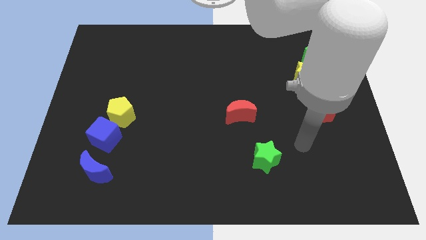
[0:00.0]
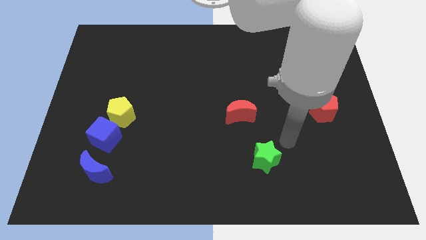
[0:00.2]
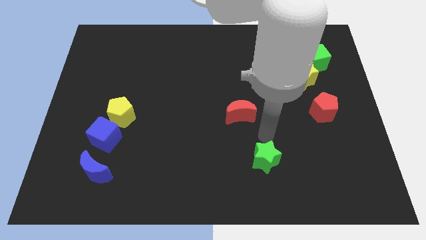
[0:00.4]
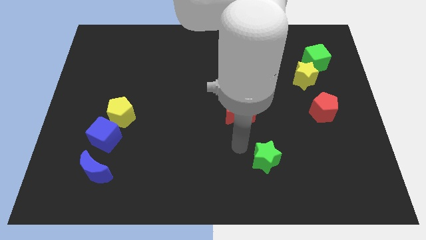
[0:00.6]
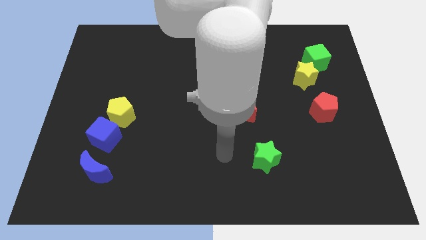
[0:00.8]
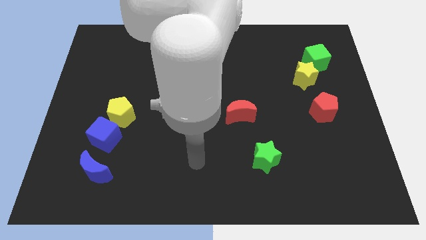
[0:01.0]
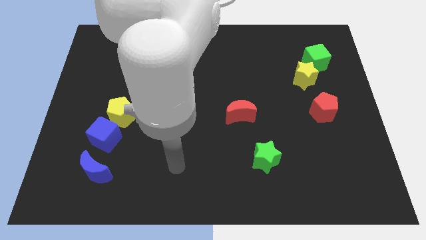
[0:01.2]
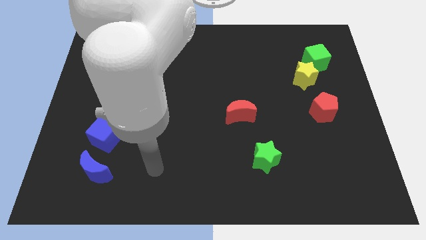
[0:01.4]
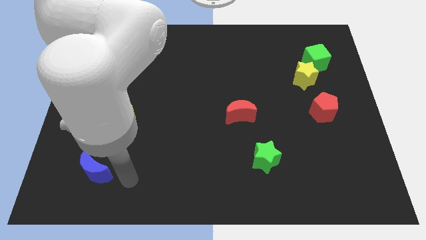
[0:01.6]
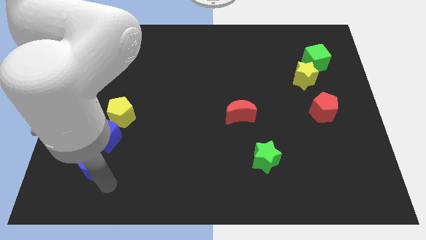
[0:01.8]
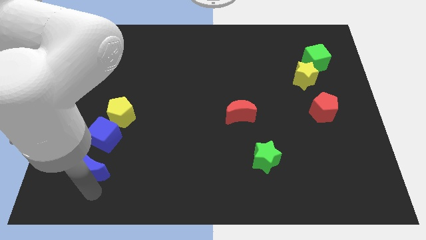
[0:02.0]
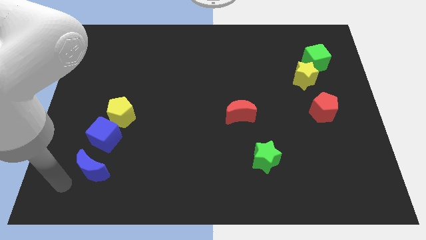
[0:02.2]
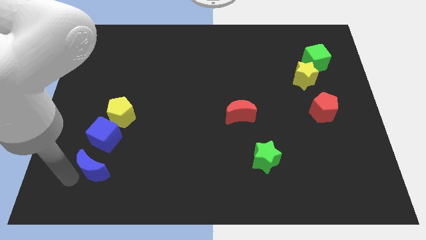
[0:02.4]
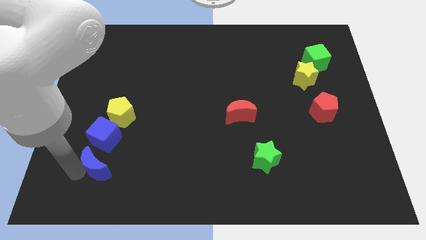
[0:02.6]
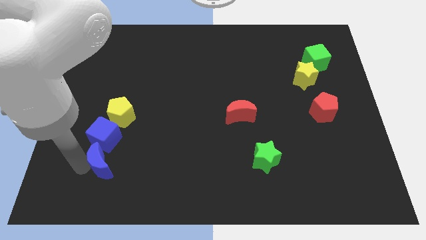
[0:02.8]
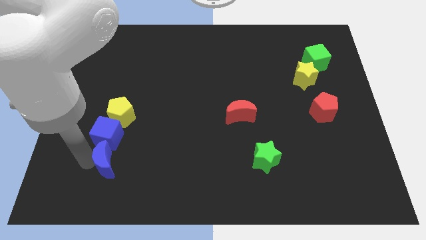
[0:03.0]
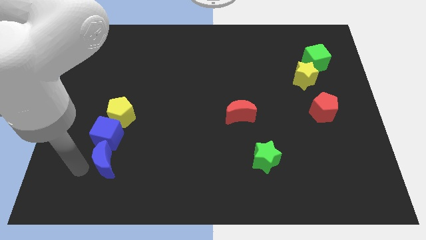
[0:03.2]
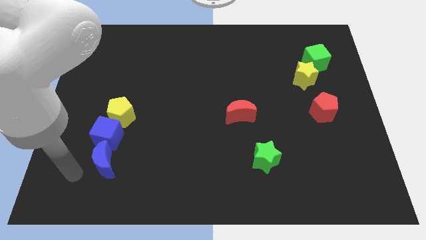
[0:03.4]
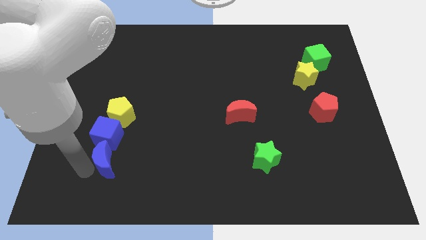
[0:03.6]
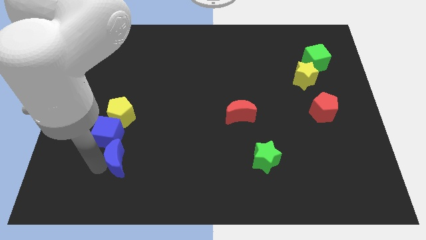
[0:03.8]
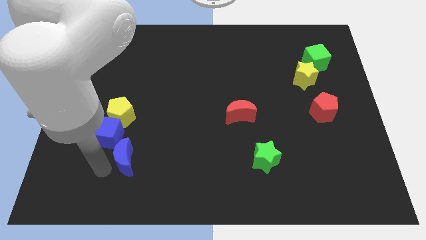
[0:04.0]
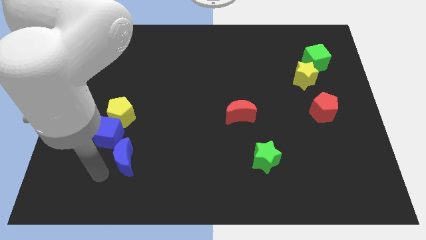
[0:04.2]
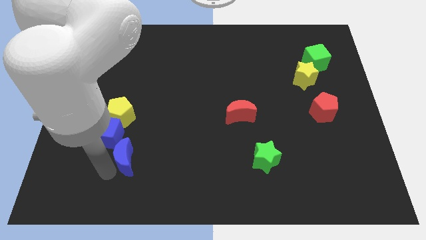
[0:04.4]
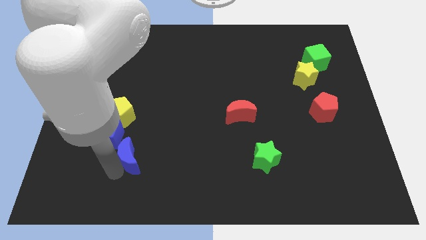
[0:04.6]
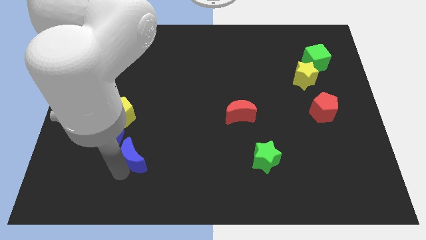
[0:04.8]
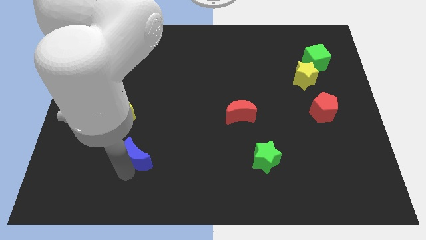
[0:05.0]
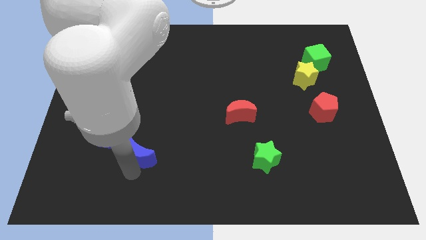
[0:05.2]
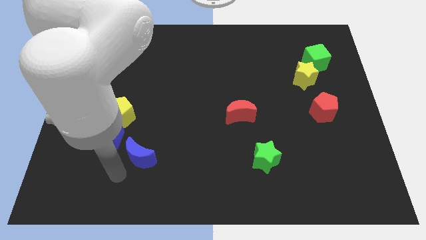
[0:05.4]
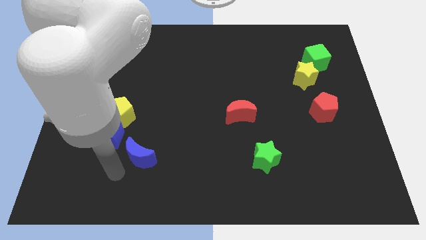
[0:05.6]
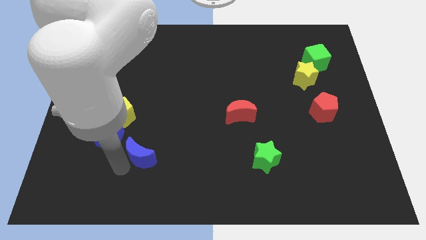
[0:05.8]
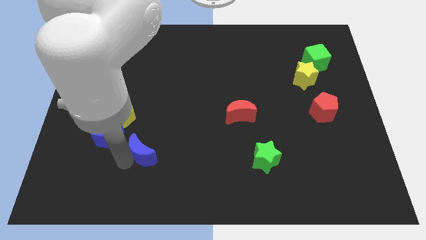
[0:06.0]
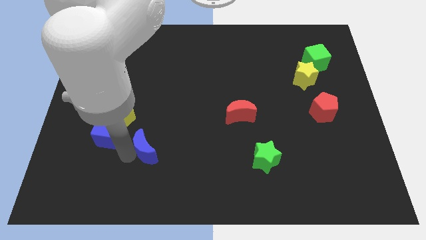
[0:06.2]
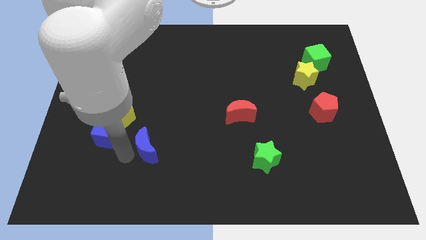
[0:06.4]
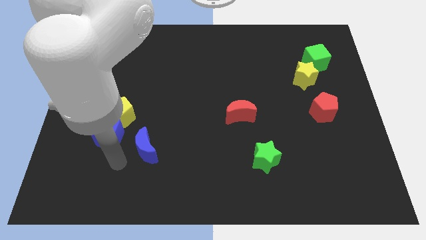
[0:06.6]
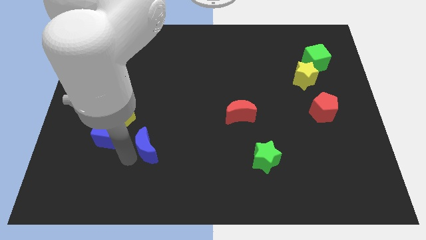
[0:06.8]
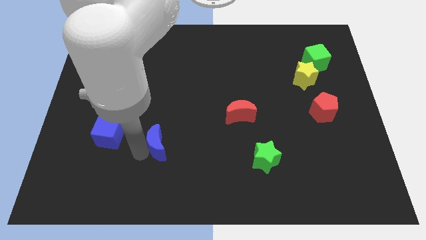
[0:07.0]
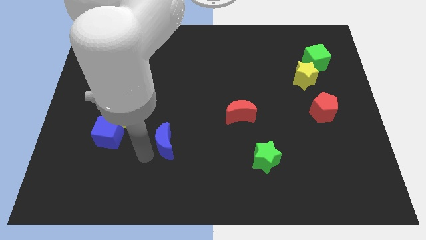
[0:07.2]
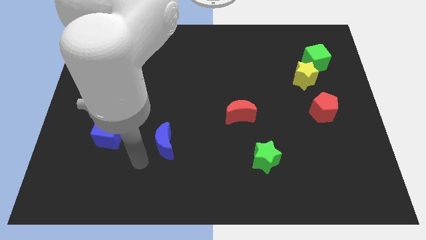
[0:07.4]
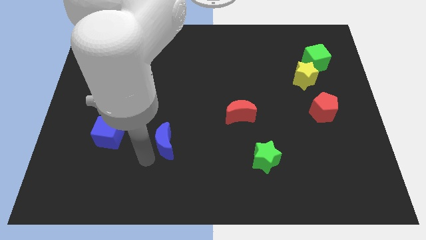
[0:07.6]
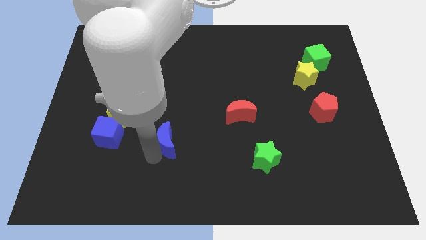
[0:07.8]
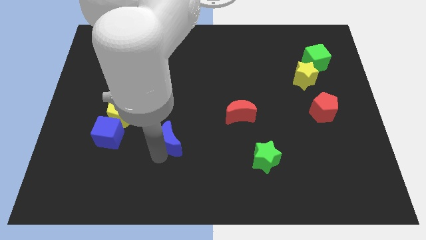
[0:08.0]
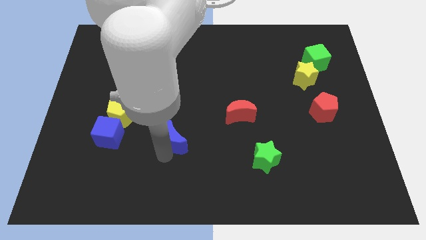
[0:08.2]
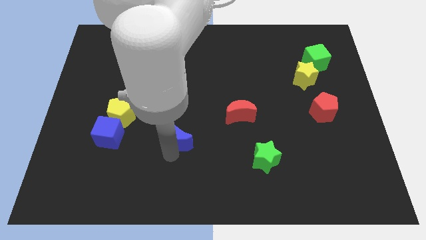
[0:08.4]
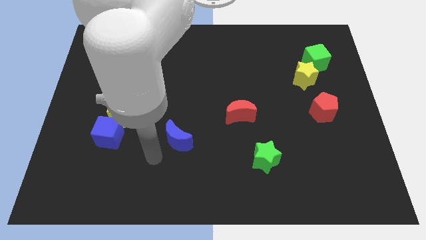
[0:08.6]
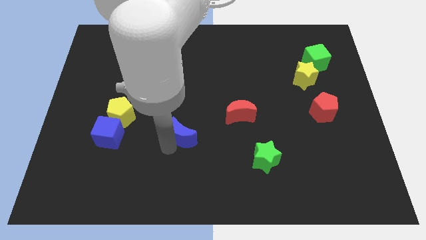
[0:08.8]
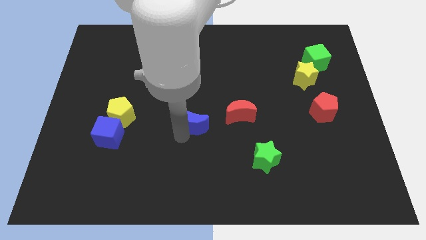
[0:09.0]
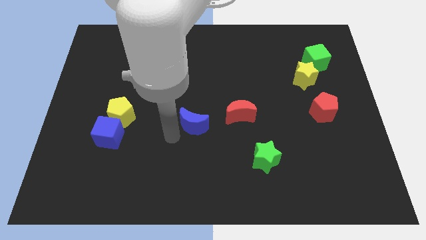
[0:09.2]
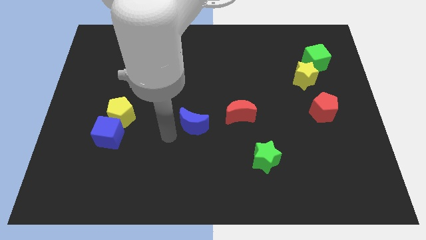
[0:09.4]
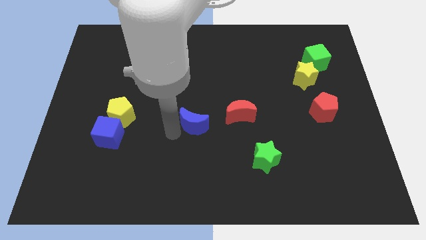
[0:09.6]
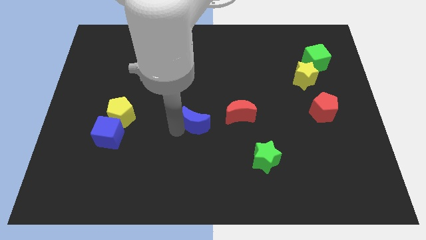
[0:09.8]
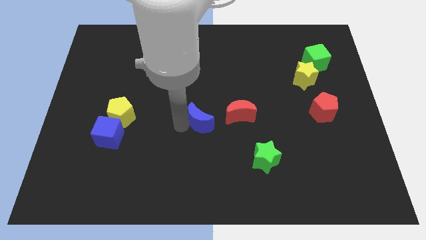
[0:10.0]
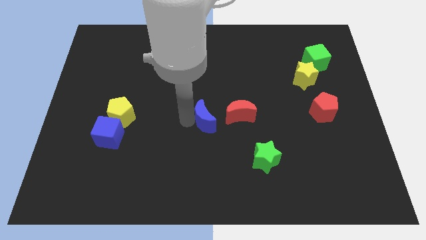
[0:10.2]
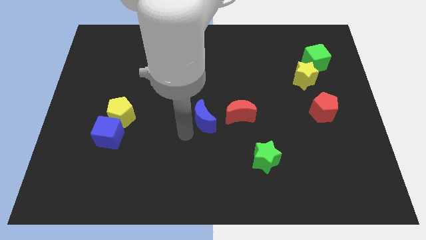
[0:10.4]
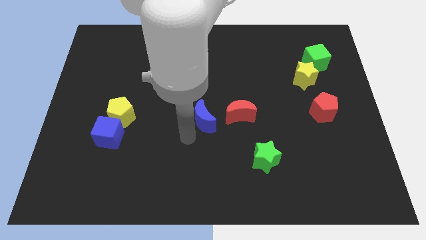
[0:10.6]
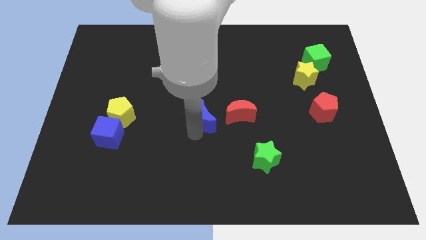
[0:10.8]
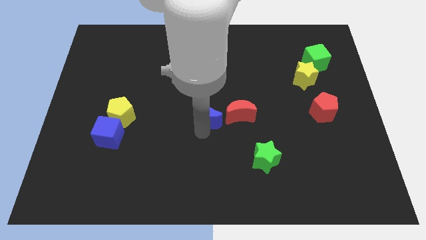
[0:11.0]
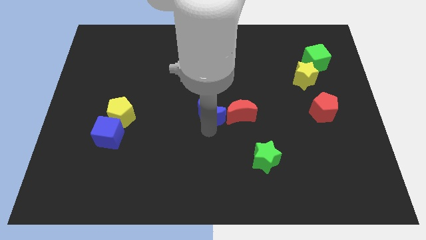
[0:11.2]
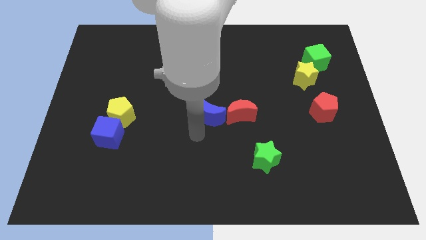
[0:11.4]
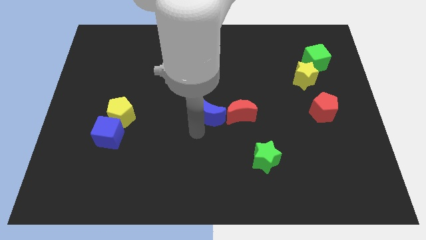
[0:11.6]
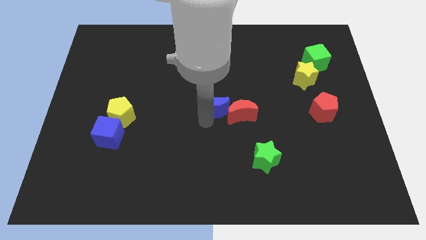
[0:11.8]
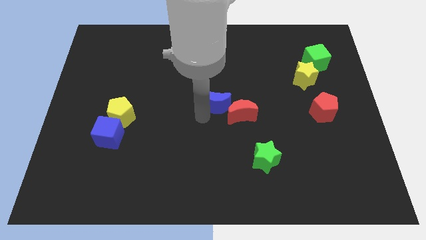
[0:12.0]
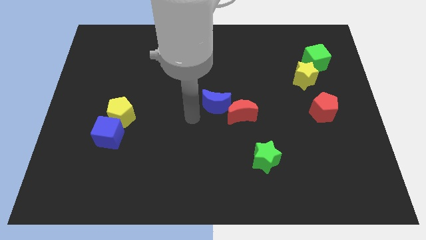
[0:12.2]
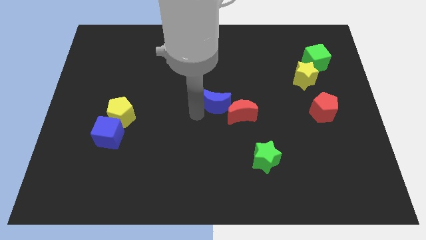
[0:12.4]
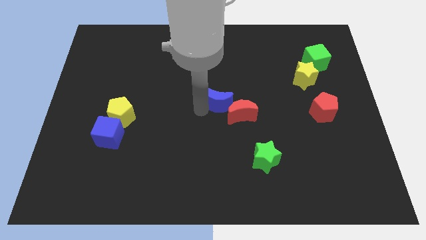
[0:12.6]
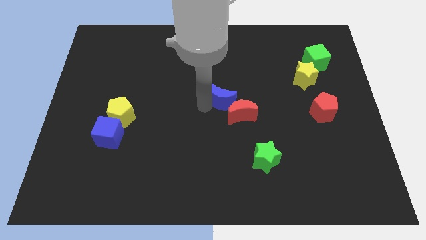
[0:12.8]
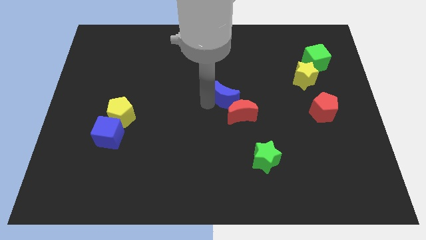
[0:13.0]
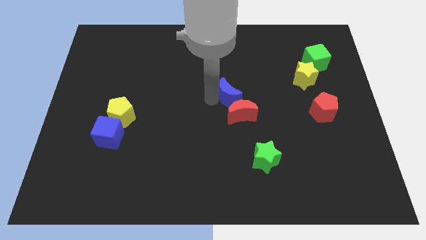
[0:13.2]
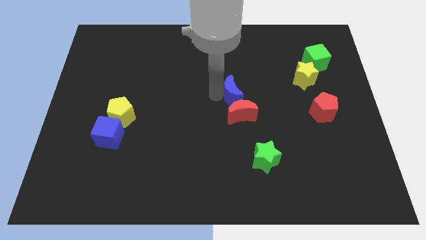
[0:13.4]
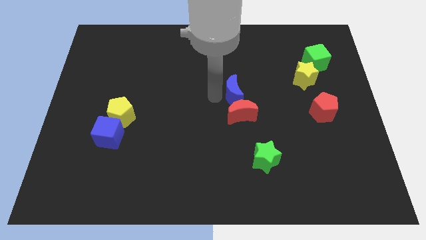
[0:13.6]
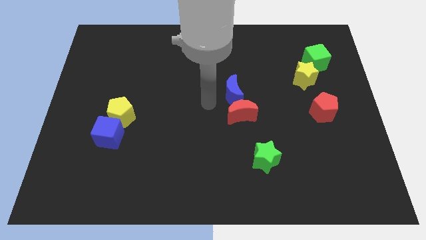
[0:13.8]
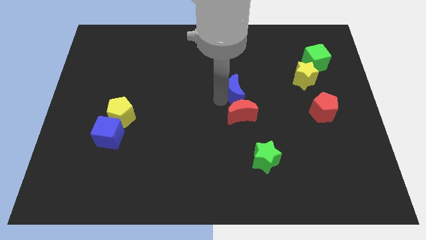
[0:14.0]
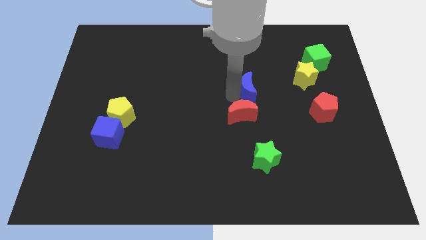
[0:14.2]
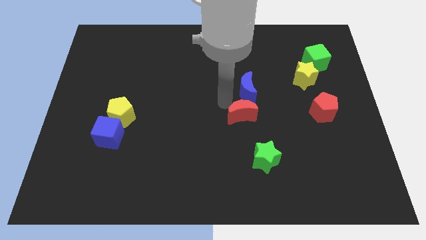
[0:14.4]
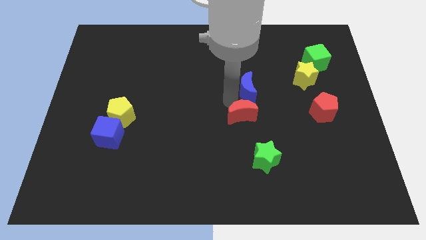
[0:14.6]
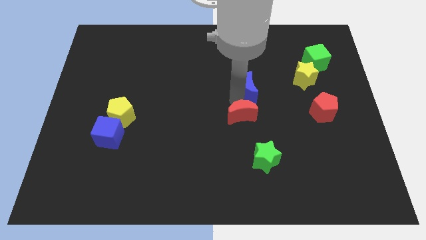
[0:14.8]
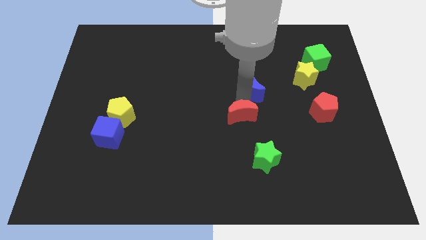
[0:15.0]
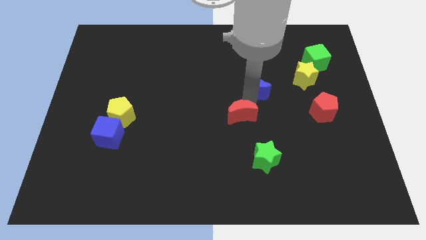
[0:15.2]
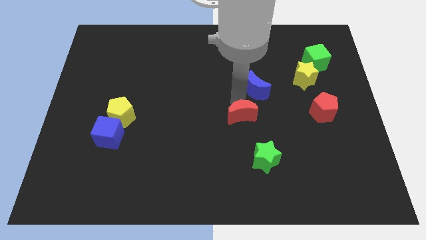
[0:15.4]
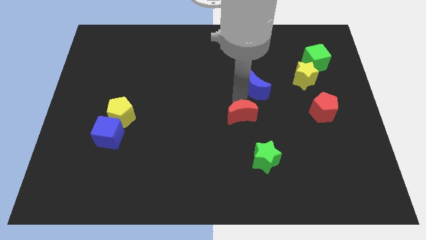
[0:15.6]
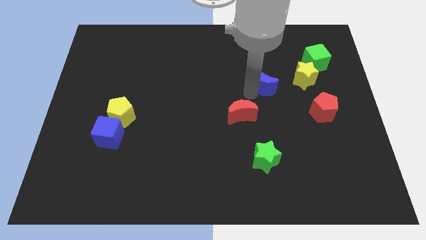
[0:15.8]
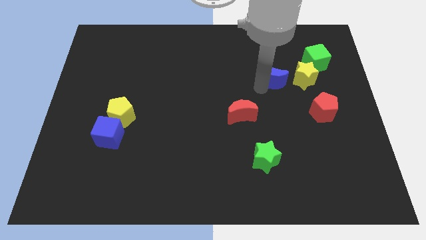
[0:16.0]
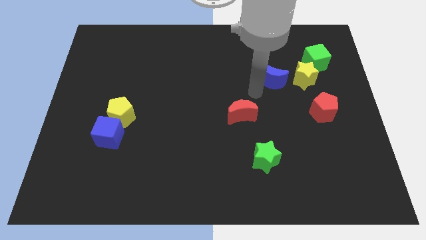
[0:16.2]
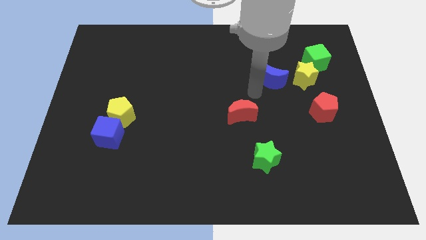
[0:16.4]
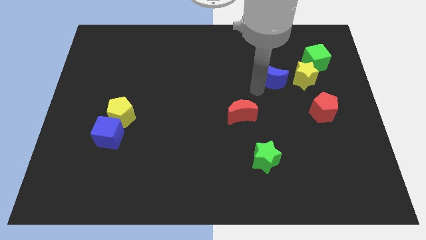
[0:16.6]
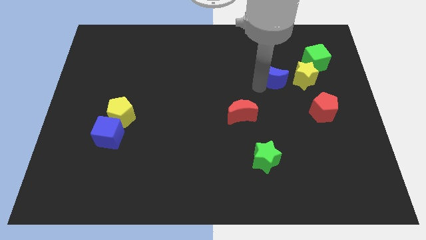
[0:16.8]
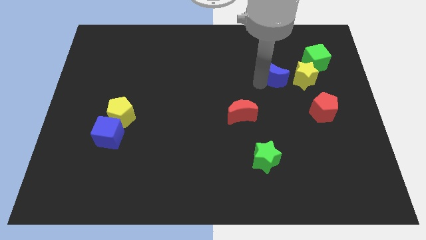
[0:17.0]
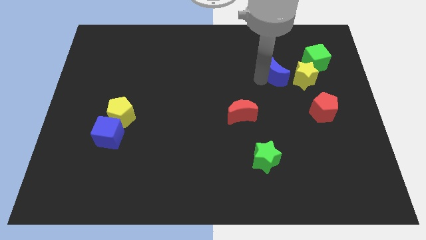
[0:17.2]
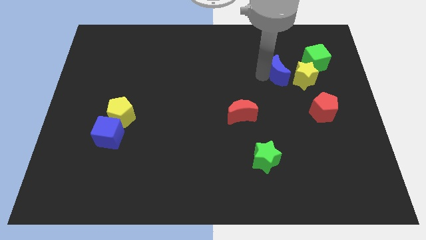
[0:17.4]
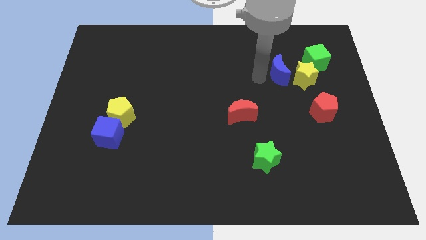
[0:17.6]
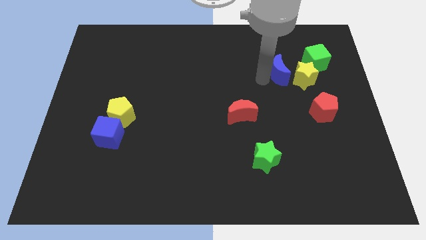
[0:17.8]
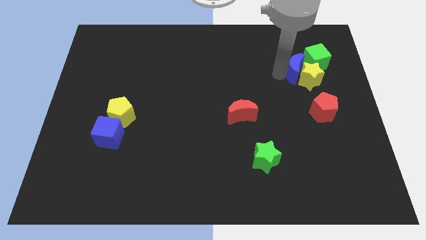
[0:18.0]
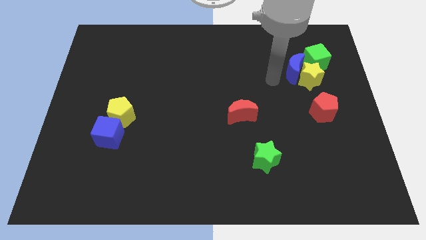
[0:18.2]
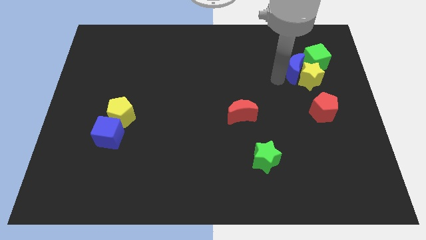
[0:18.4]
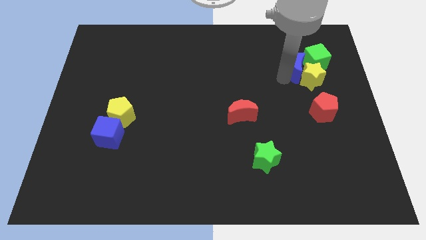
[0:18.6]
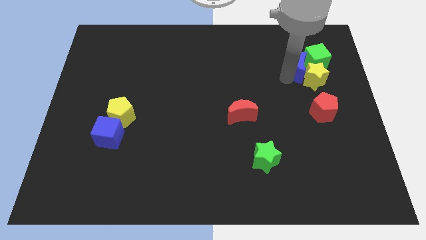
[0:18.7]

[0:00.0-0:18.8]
move the blue moon close to the green cube
